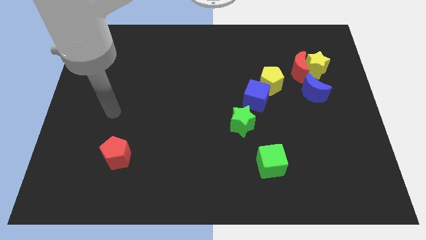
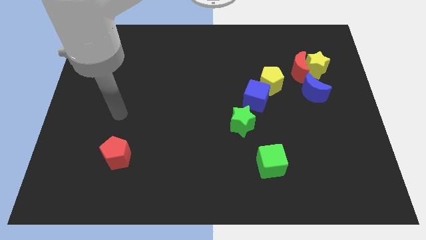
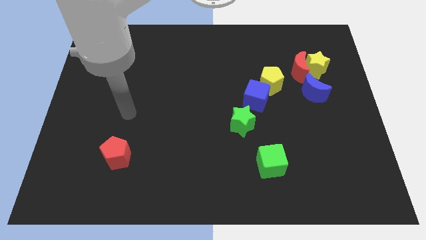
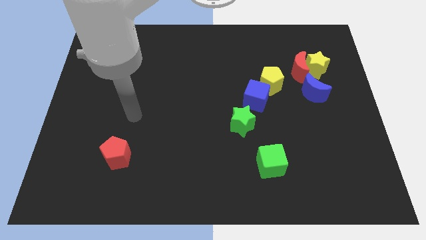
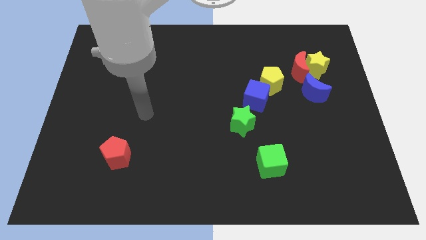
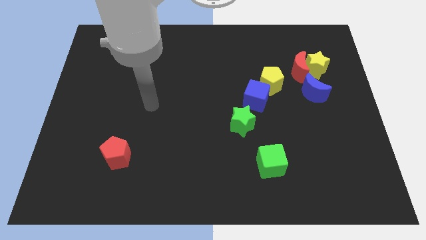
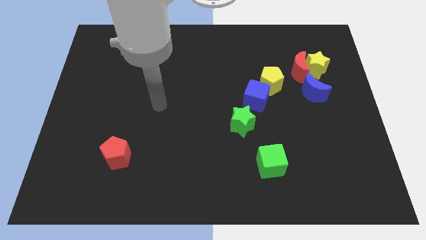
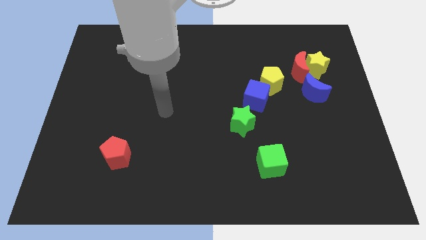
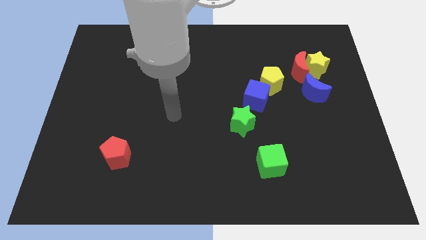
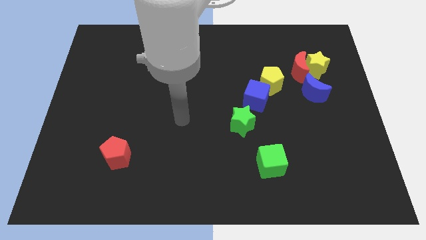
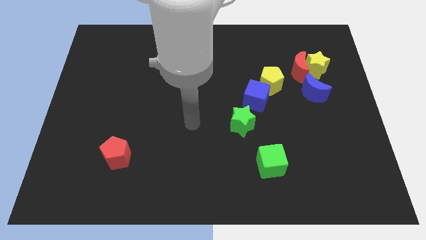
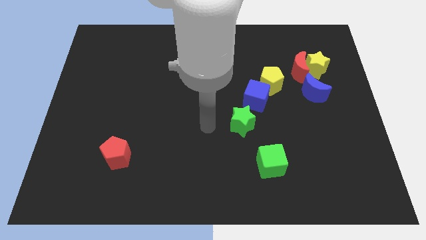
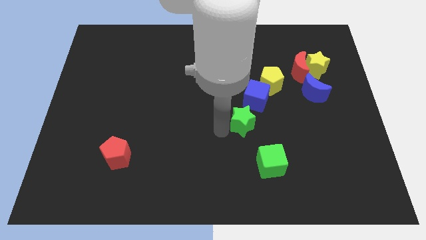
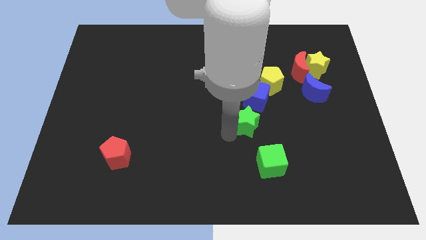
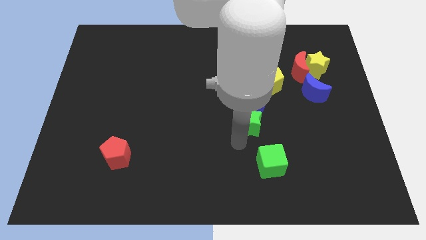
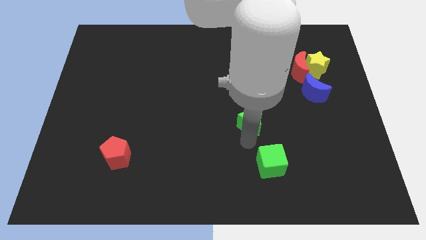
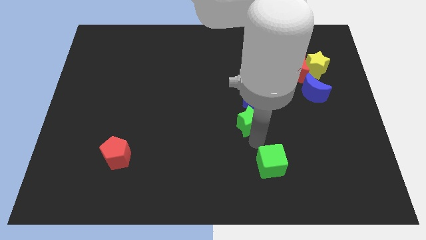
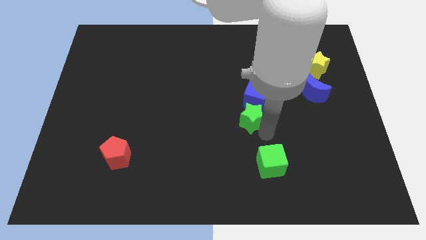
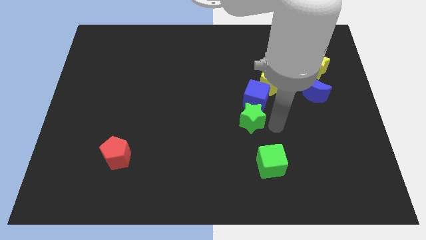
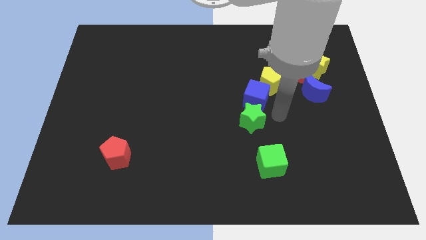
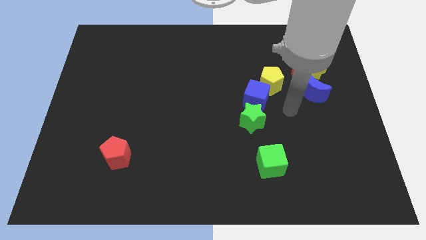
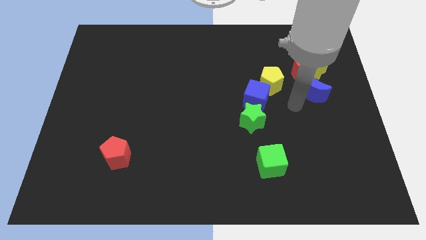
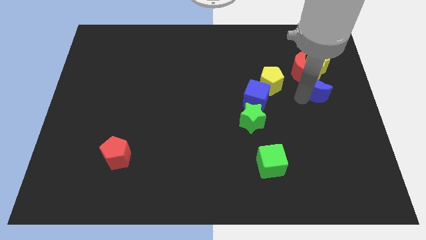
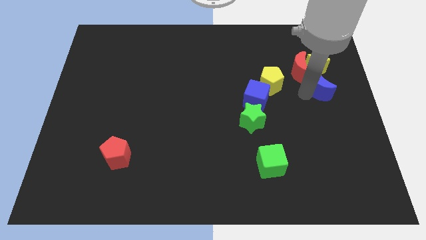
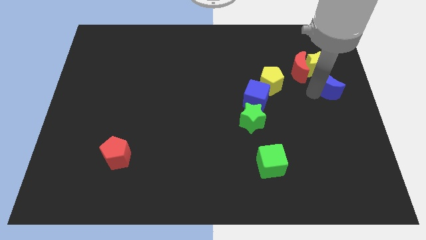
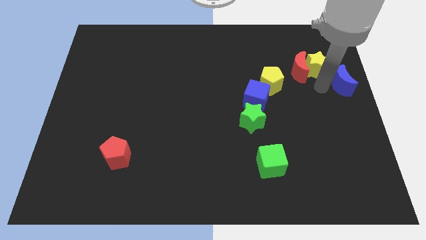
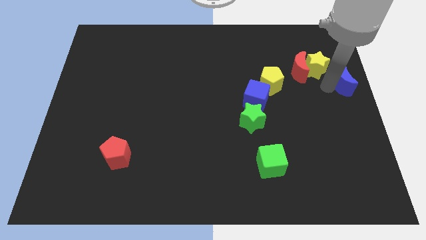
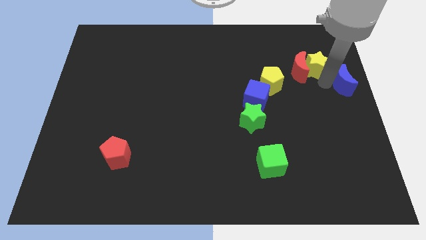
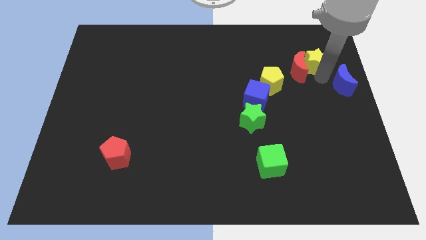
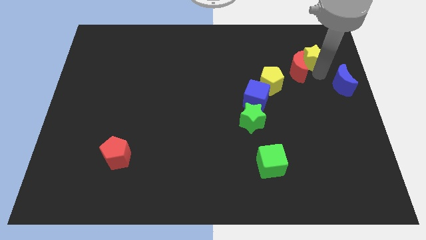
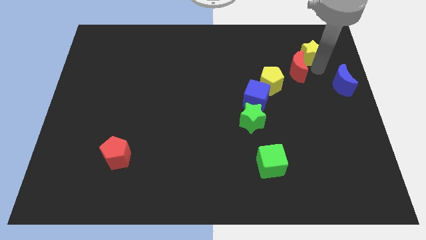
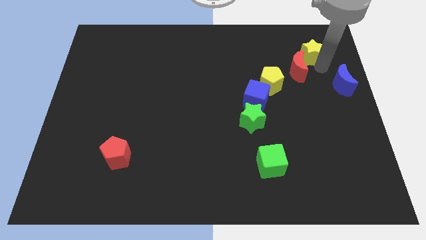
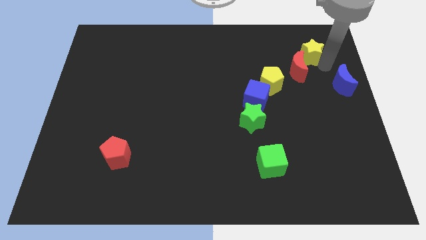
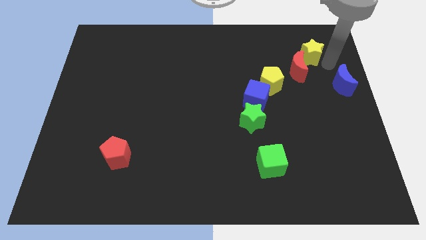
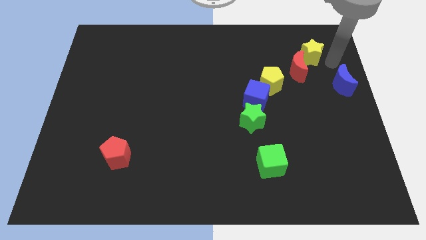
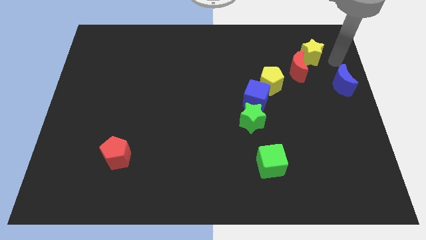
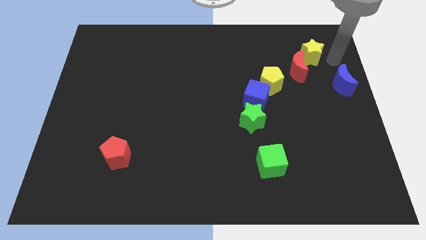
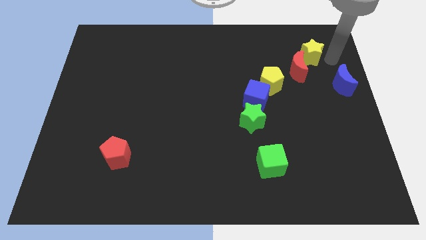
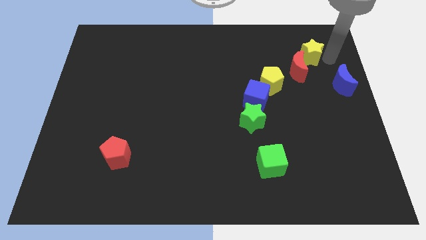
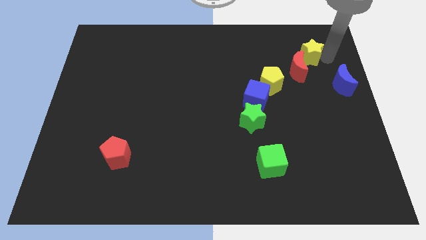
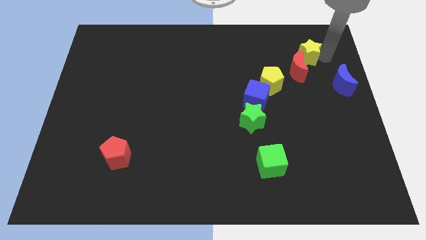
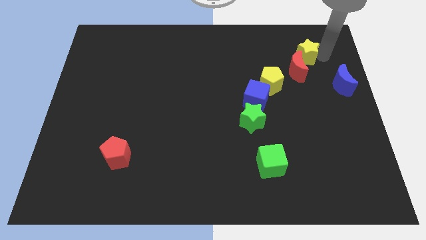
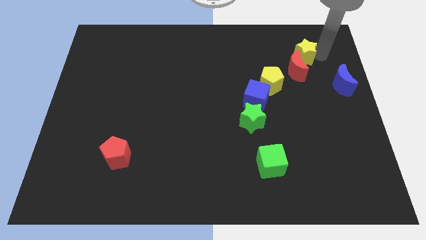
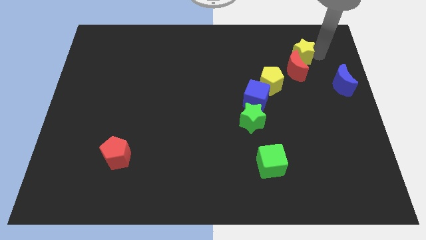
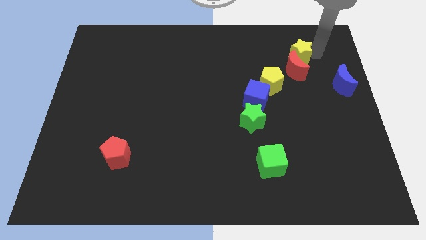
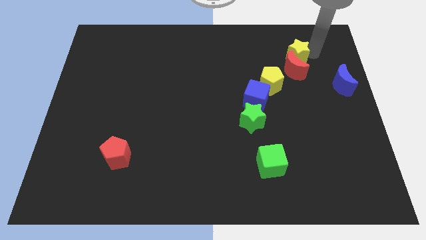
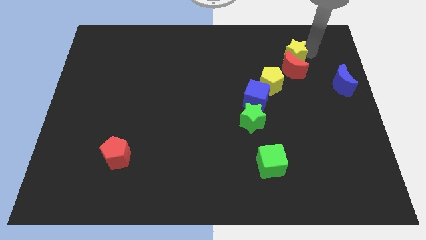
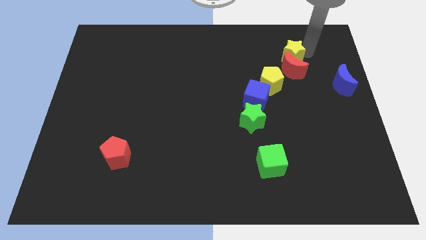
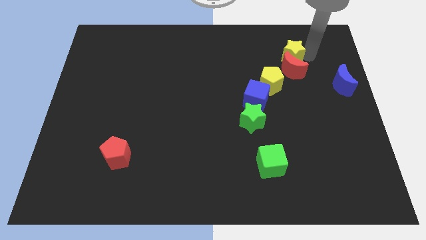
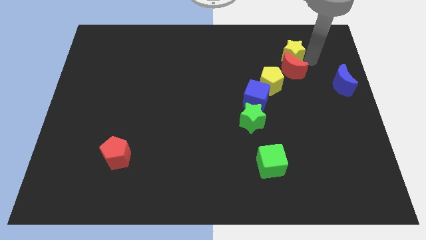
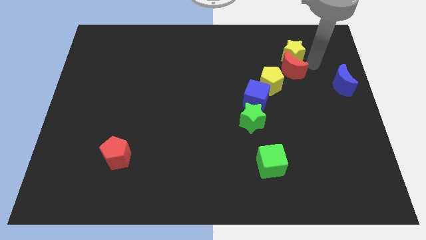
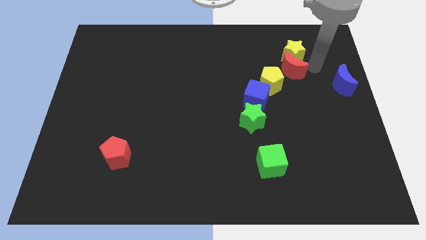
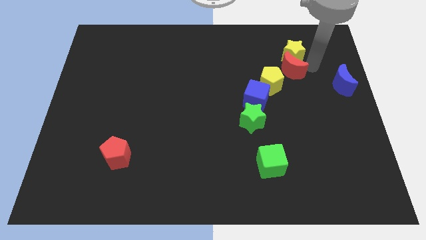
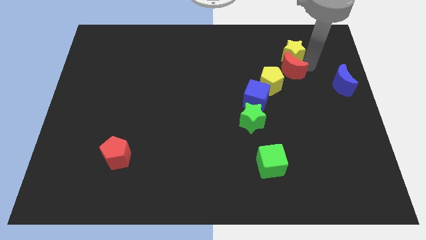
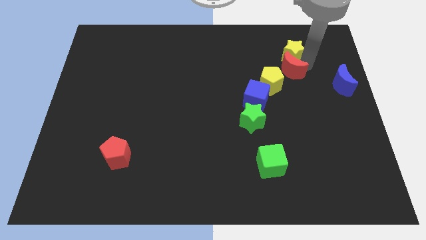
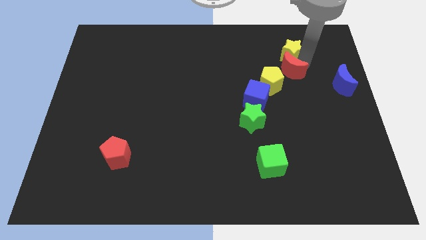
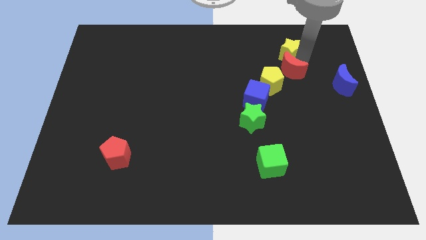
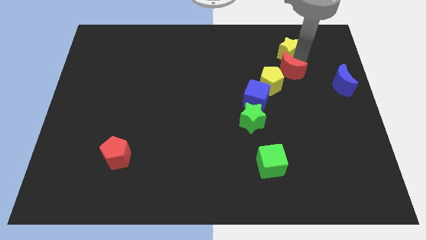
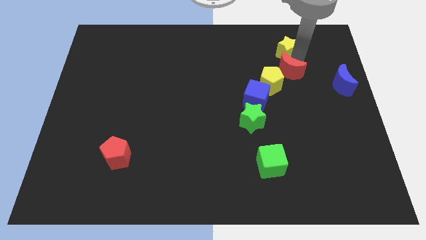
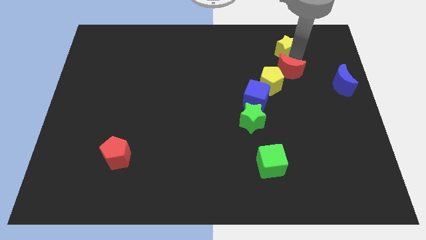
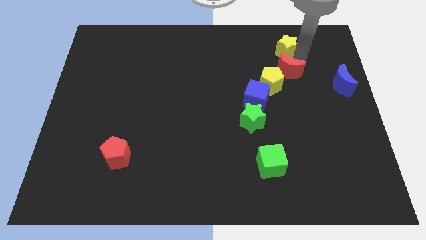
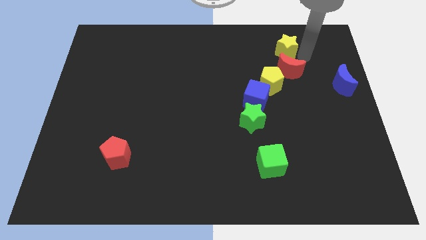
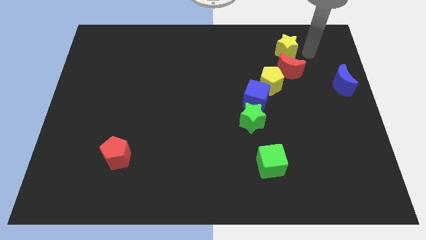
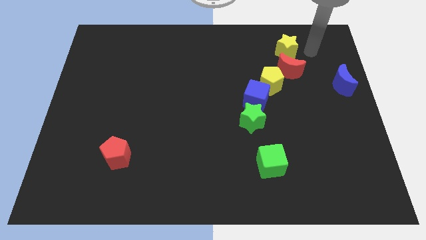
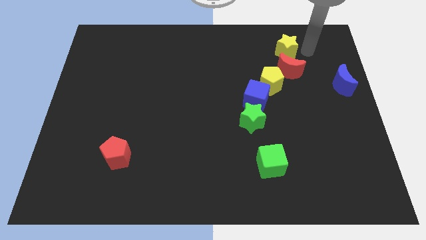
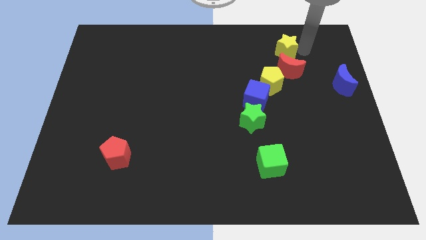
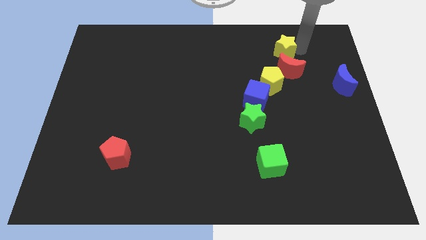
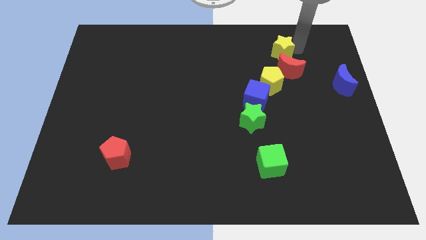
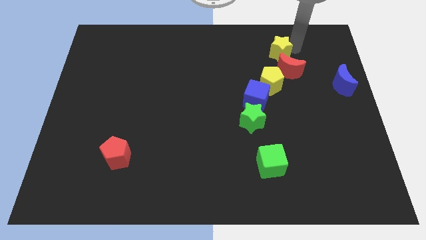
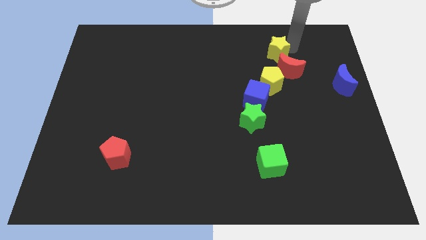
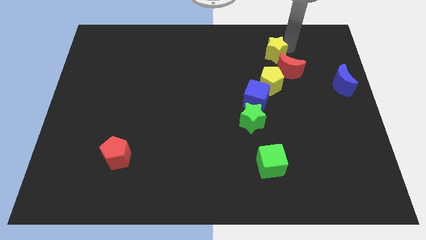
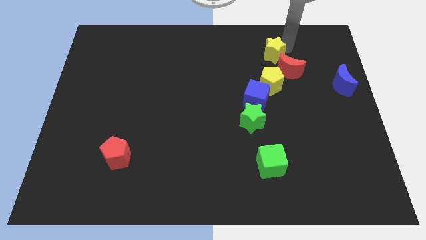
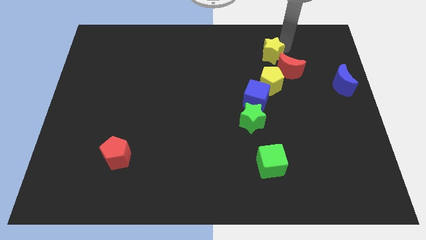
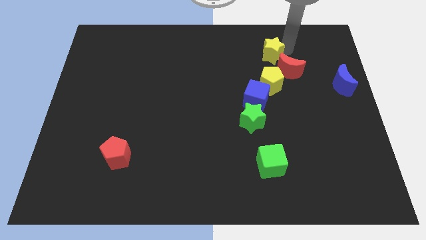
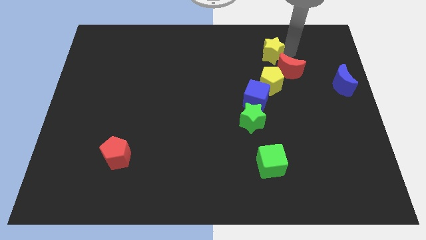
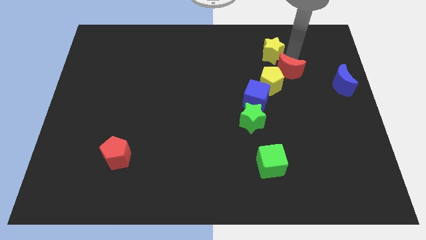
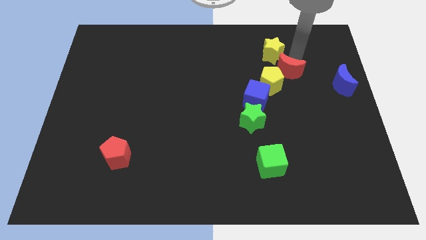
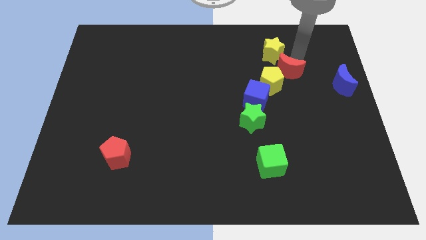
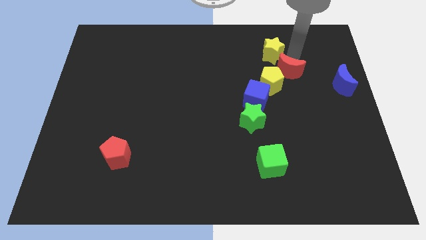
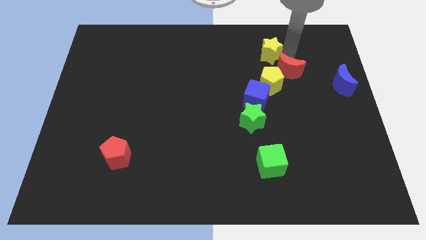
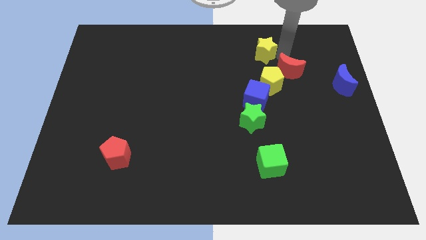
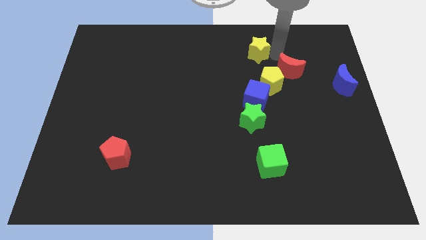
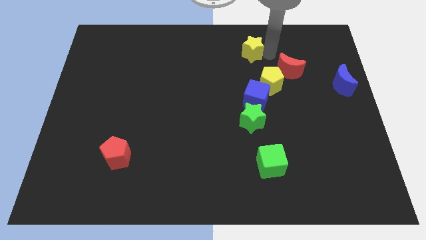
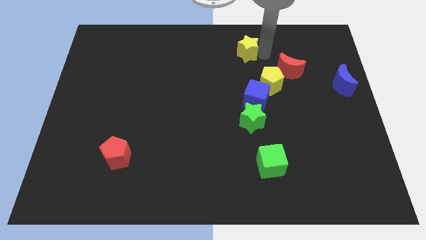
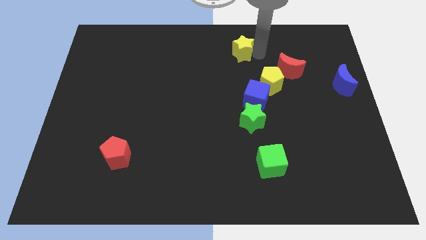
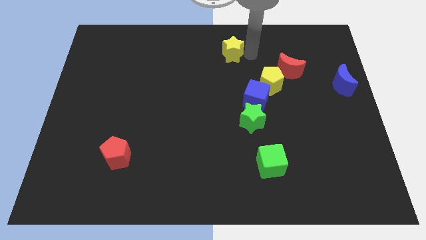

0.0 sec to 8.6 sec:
put the yellow star to the top
